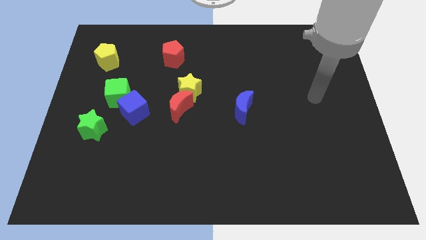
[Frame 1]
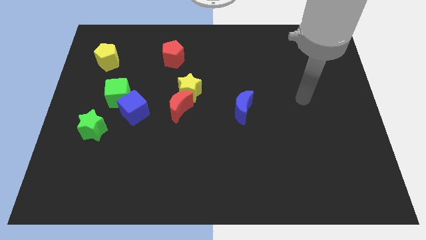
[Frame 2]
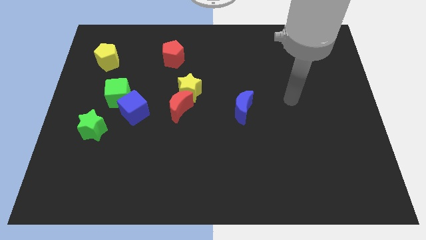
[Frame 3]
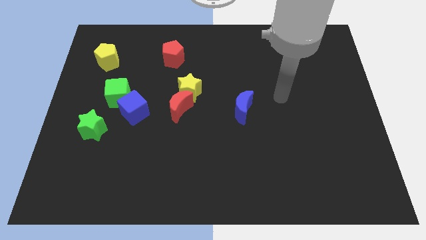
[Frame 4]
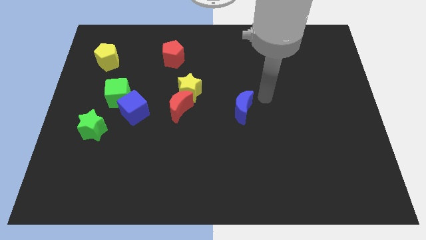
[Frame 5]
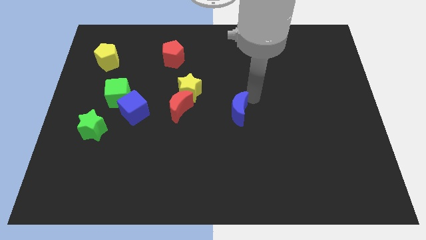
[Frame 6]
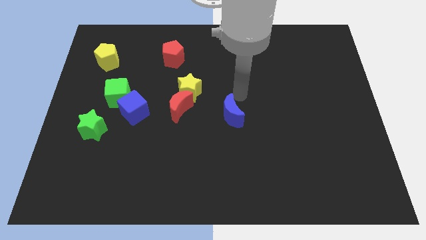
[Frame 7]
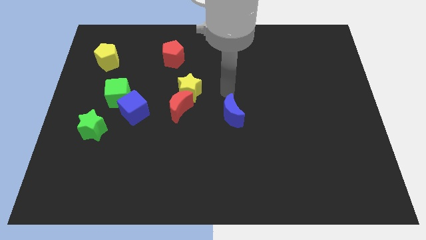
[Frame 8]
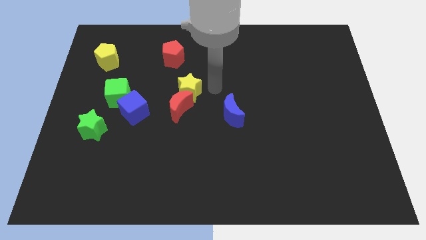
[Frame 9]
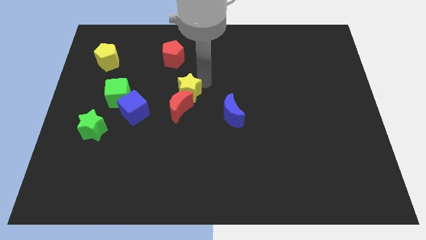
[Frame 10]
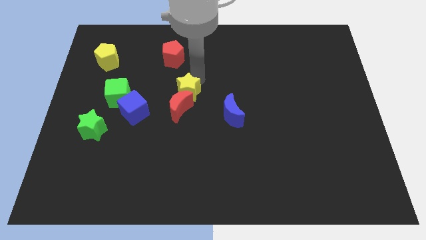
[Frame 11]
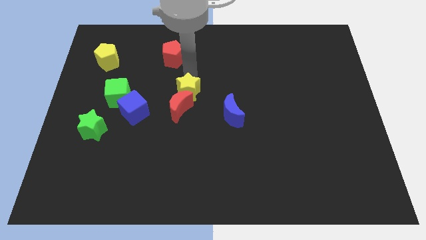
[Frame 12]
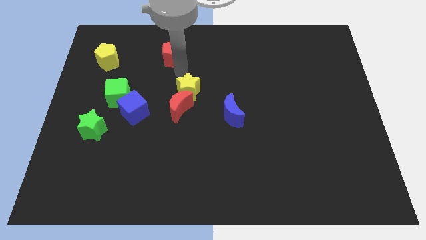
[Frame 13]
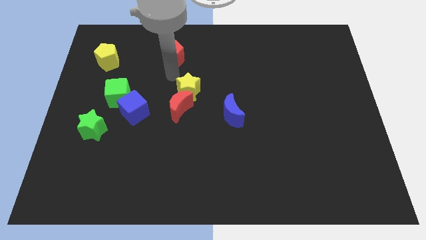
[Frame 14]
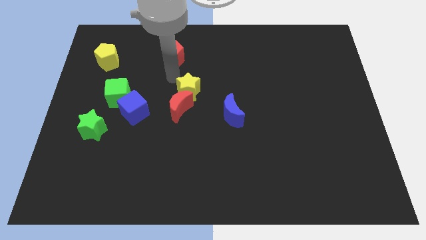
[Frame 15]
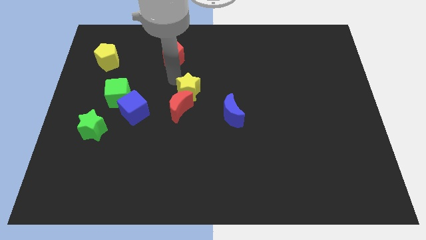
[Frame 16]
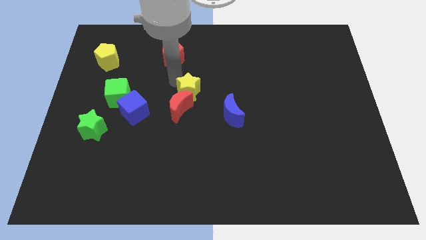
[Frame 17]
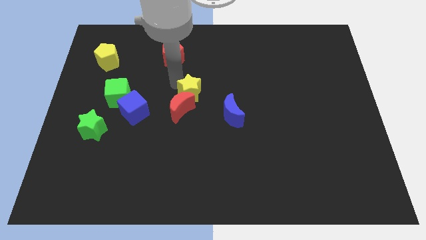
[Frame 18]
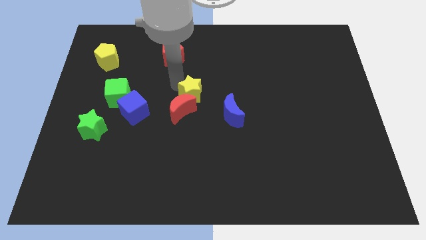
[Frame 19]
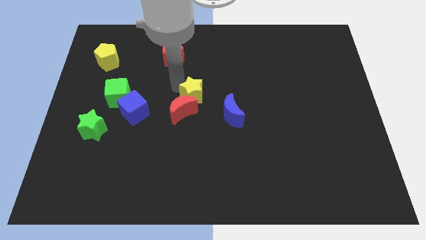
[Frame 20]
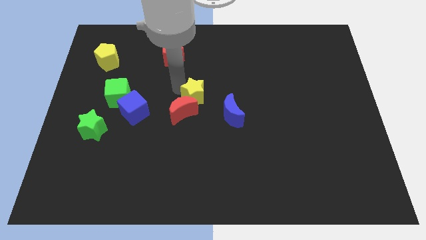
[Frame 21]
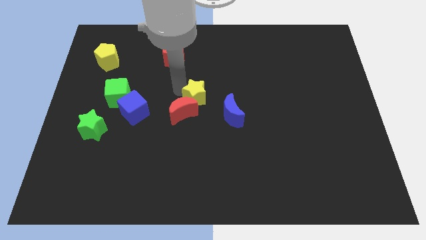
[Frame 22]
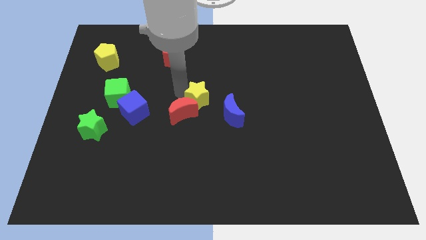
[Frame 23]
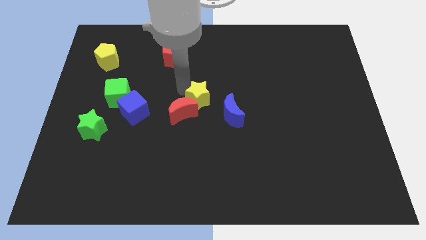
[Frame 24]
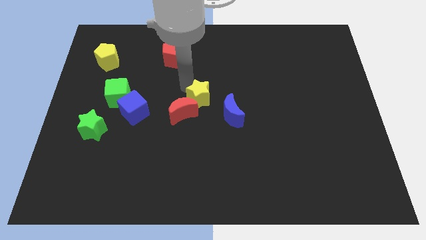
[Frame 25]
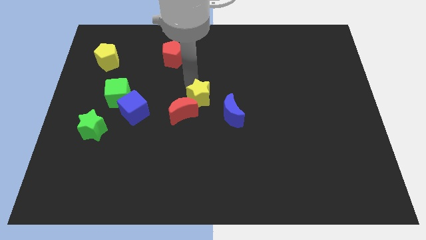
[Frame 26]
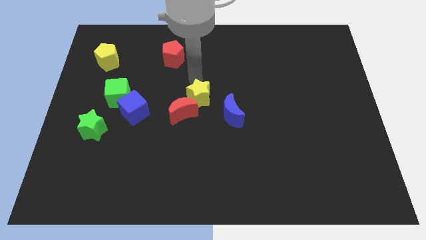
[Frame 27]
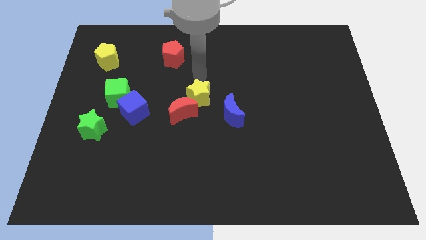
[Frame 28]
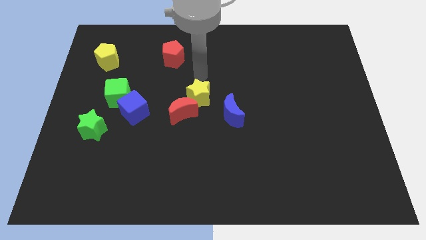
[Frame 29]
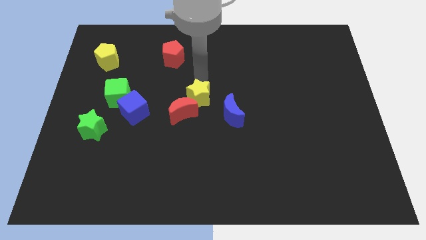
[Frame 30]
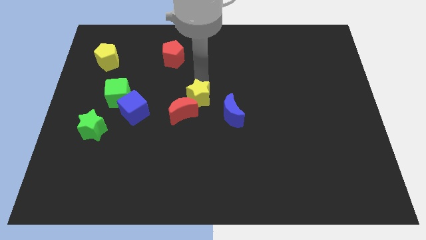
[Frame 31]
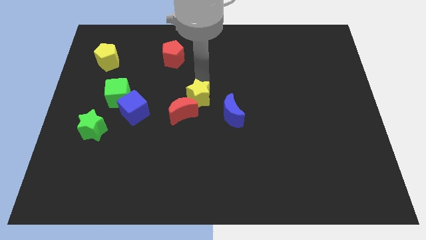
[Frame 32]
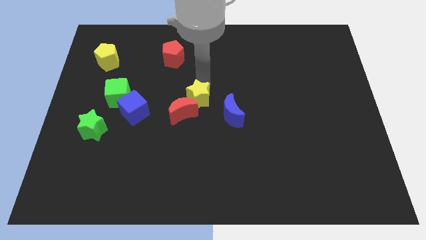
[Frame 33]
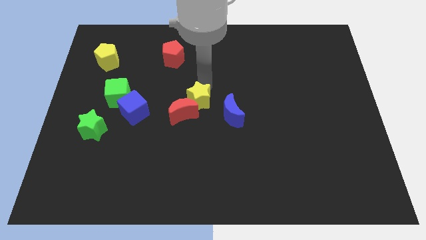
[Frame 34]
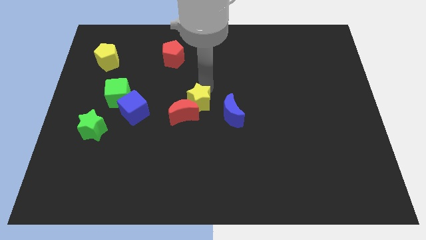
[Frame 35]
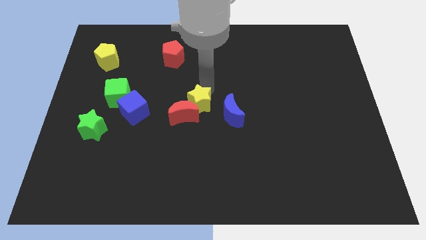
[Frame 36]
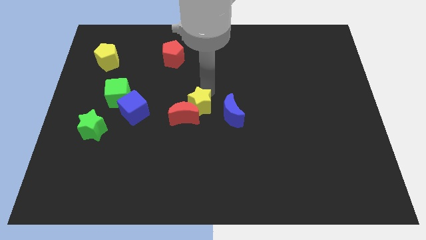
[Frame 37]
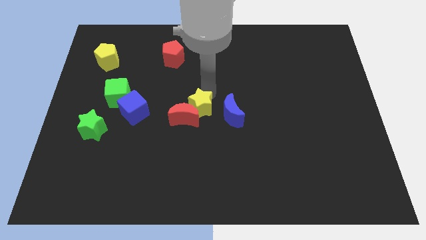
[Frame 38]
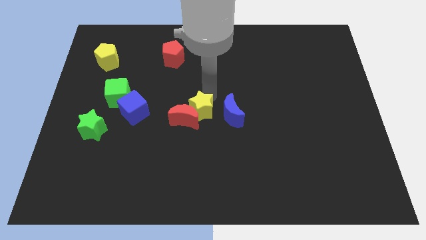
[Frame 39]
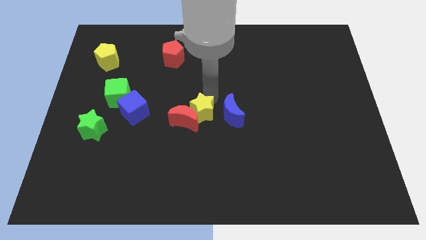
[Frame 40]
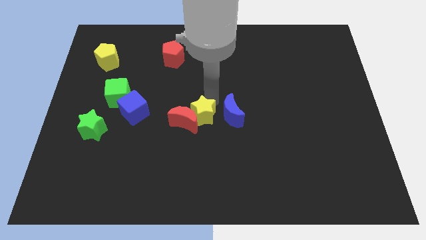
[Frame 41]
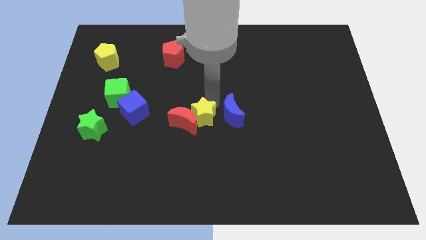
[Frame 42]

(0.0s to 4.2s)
slightly slide the yellow star down

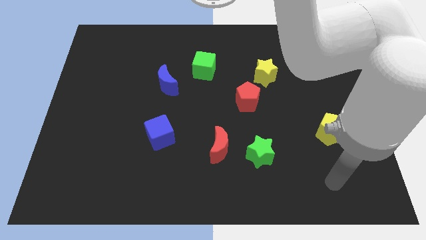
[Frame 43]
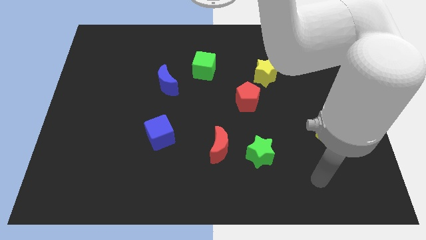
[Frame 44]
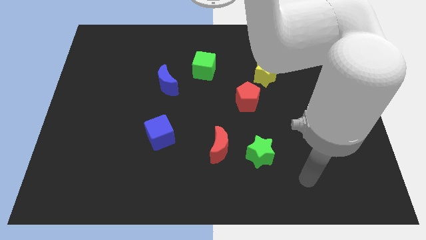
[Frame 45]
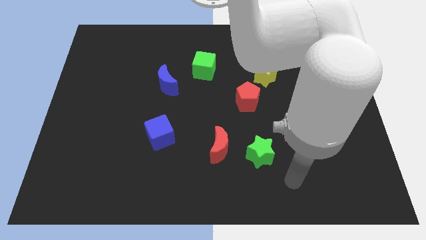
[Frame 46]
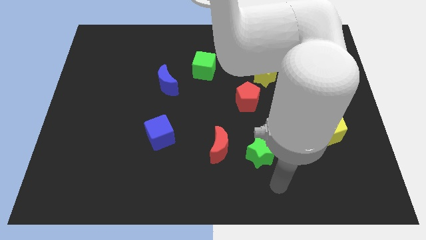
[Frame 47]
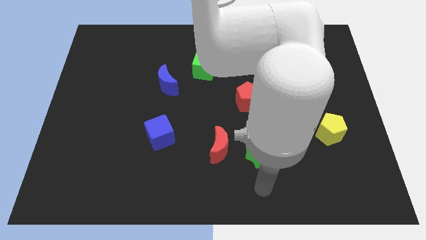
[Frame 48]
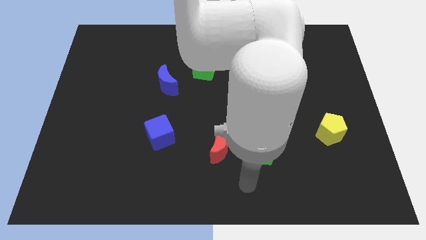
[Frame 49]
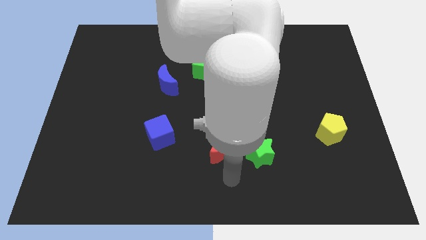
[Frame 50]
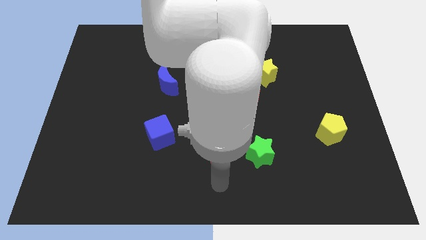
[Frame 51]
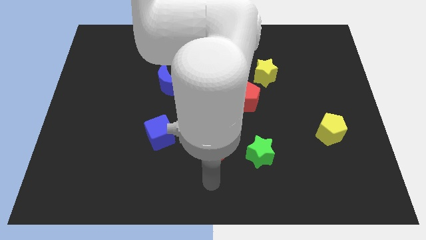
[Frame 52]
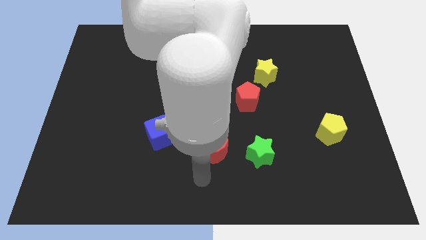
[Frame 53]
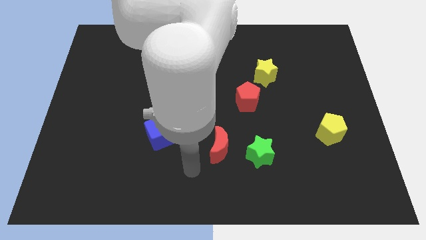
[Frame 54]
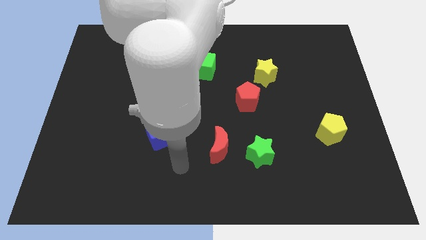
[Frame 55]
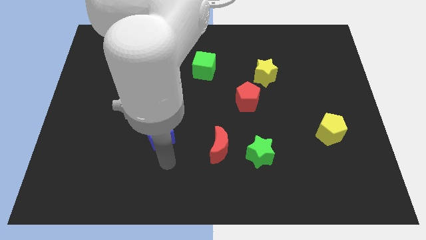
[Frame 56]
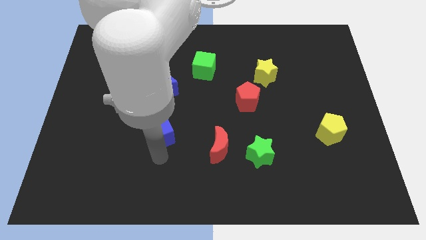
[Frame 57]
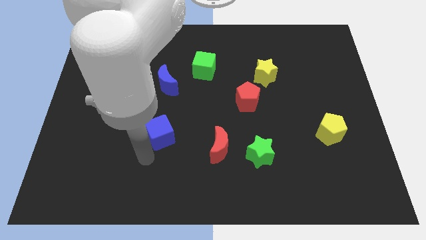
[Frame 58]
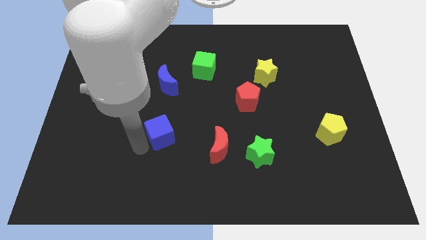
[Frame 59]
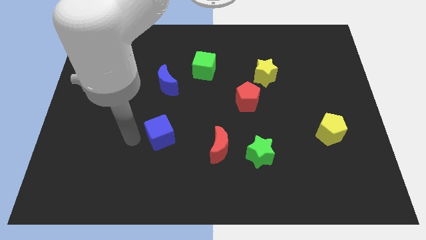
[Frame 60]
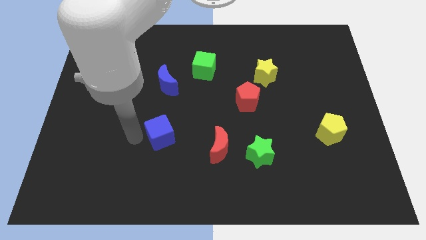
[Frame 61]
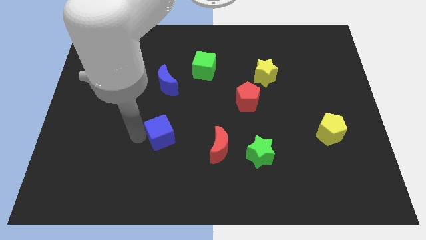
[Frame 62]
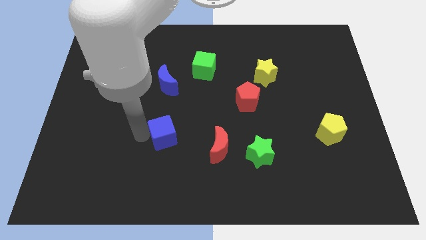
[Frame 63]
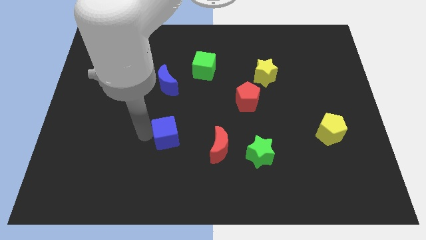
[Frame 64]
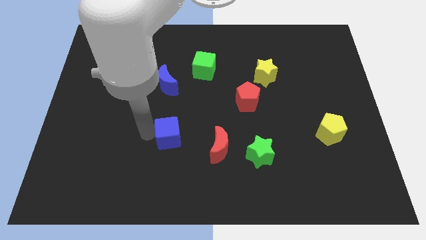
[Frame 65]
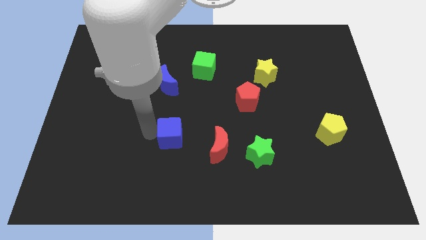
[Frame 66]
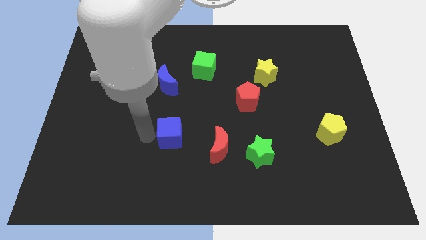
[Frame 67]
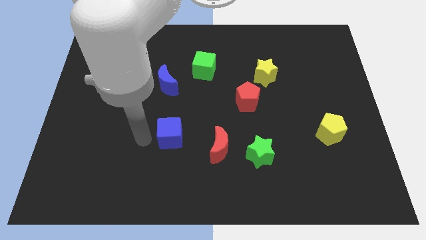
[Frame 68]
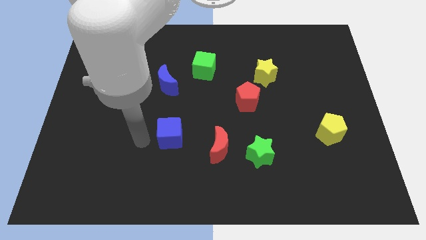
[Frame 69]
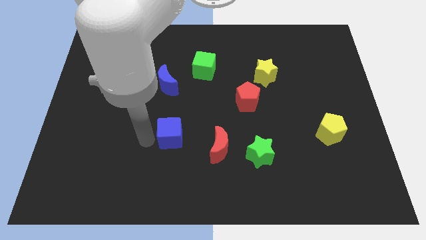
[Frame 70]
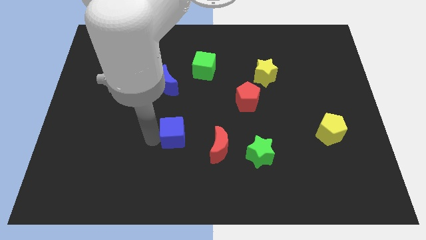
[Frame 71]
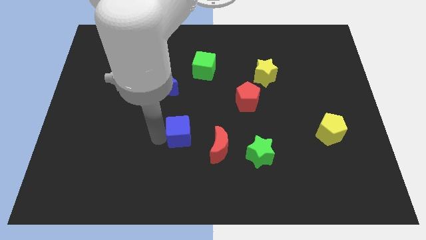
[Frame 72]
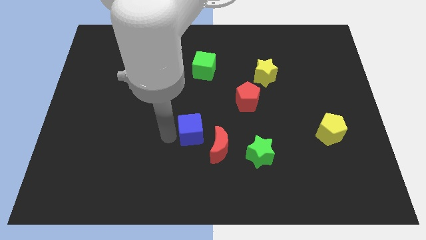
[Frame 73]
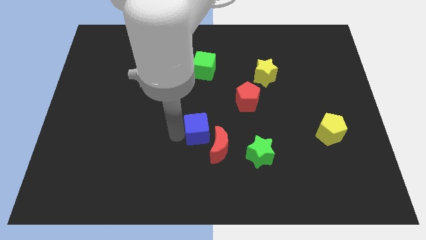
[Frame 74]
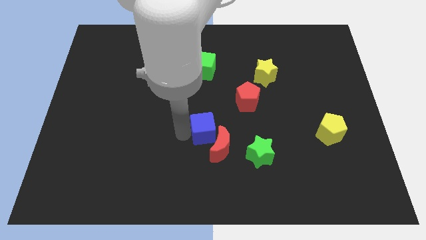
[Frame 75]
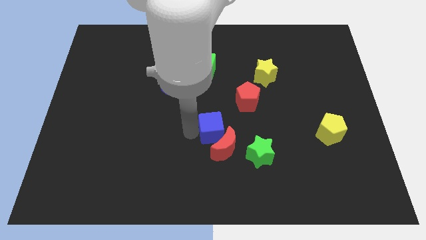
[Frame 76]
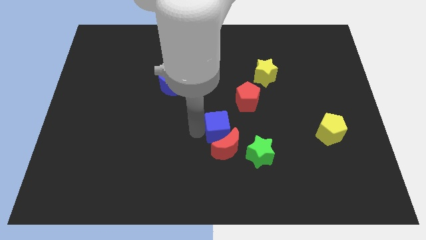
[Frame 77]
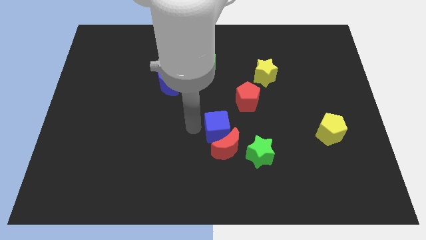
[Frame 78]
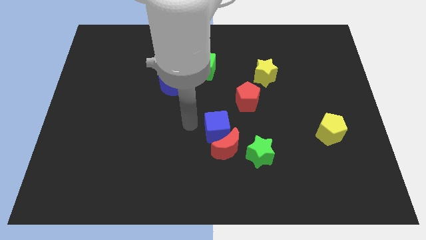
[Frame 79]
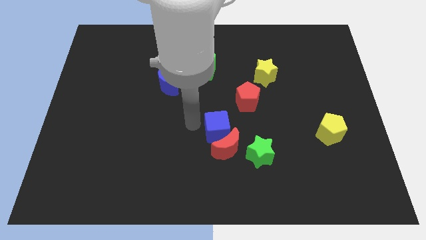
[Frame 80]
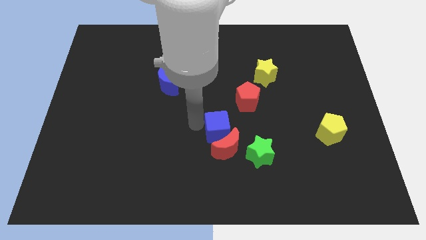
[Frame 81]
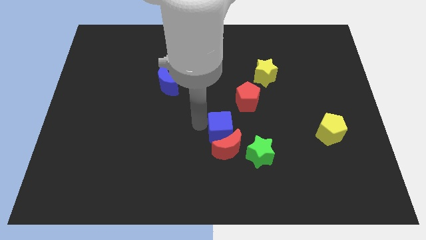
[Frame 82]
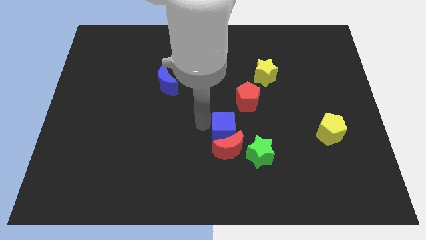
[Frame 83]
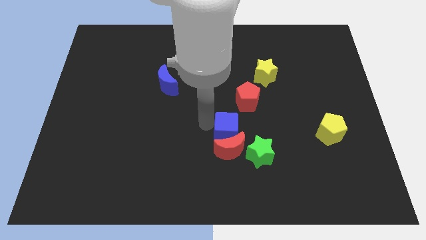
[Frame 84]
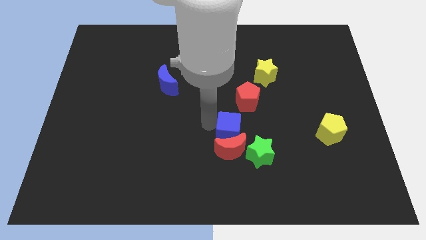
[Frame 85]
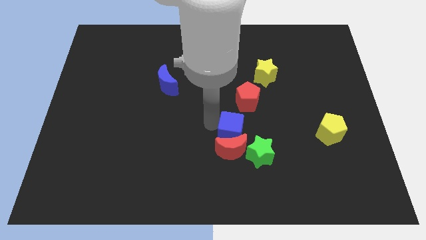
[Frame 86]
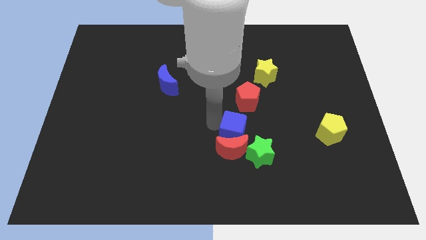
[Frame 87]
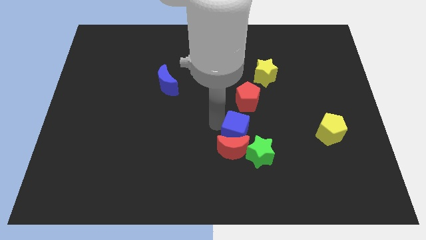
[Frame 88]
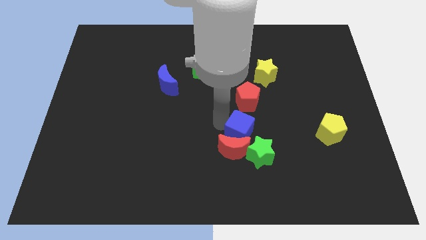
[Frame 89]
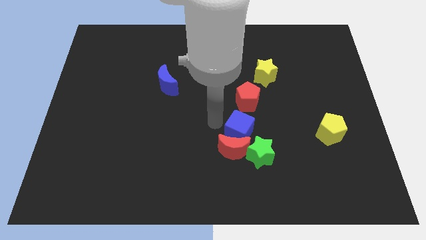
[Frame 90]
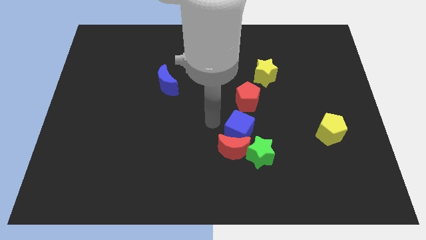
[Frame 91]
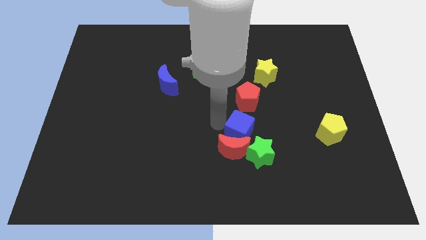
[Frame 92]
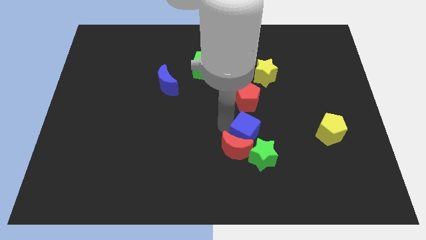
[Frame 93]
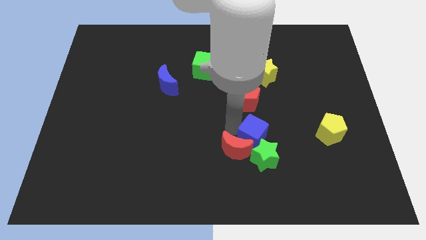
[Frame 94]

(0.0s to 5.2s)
push the blue cube right
